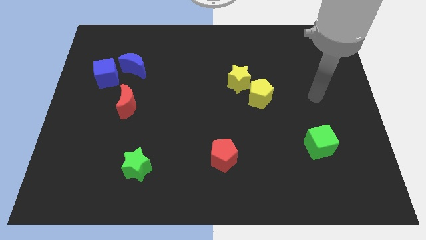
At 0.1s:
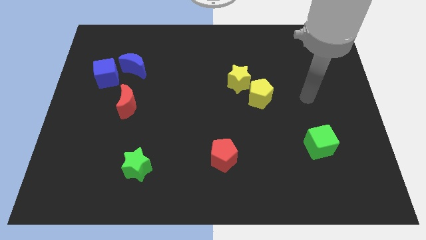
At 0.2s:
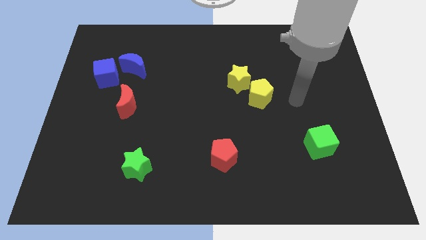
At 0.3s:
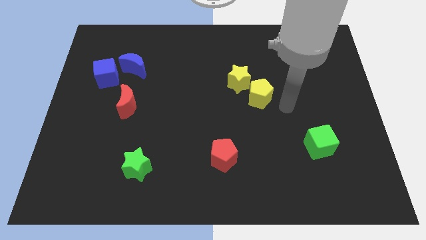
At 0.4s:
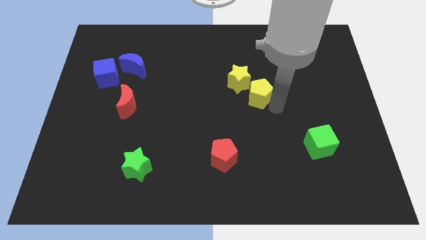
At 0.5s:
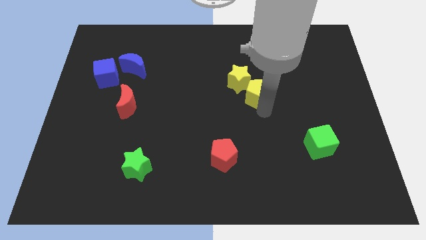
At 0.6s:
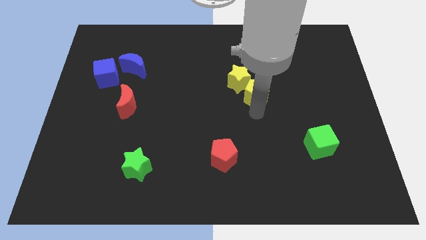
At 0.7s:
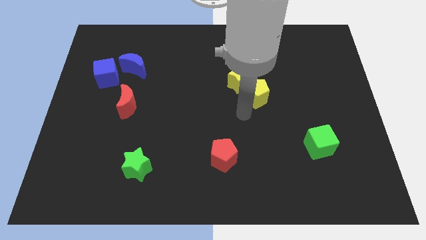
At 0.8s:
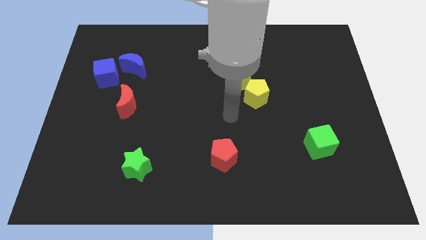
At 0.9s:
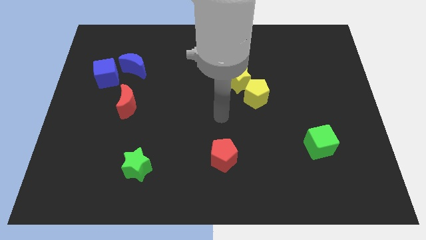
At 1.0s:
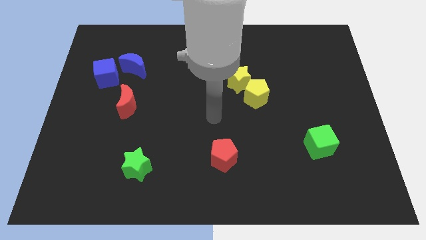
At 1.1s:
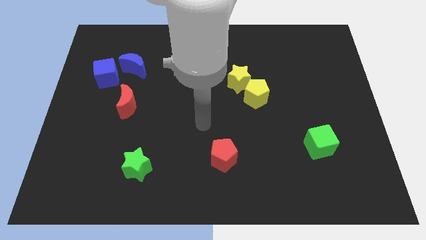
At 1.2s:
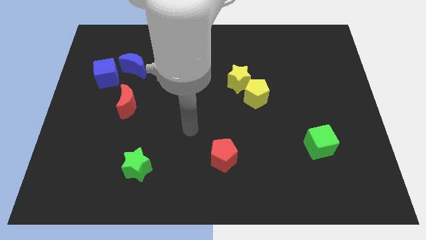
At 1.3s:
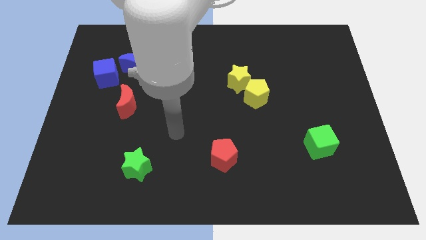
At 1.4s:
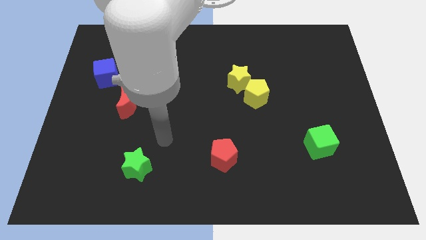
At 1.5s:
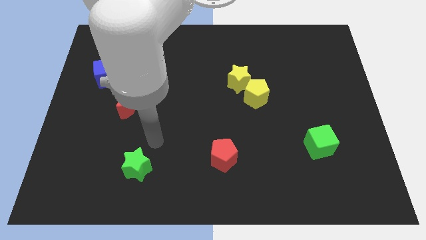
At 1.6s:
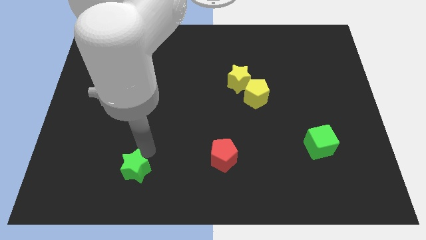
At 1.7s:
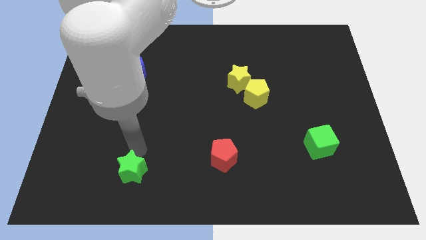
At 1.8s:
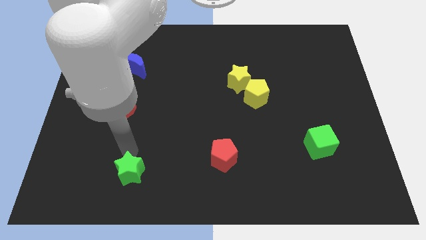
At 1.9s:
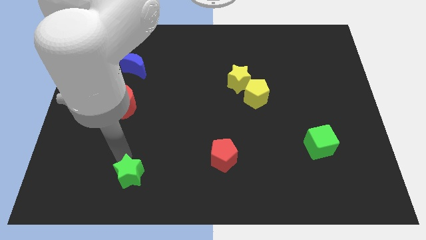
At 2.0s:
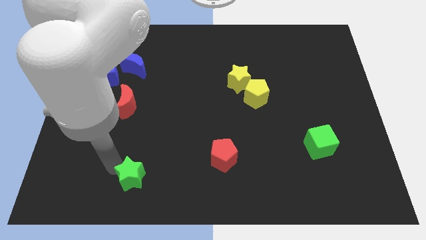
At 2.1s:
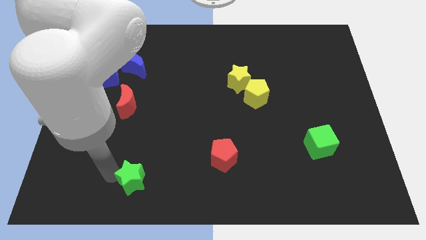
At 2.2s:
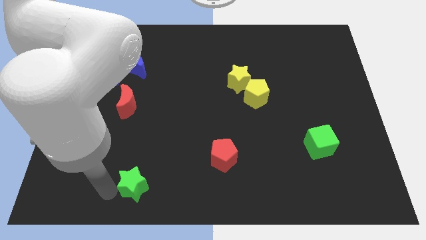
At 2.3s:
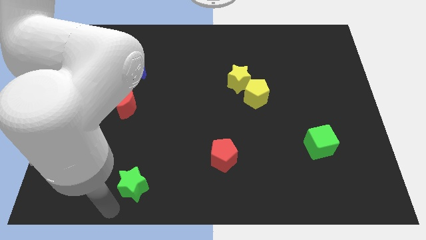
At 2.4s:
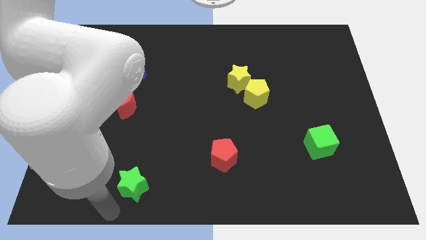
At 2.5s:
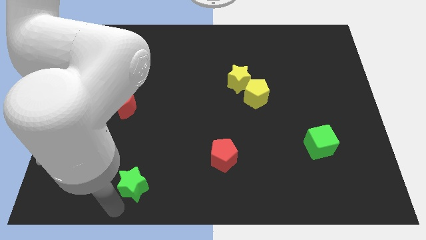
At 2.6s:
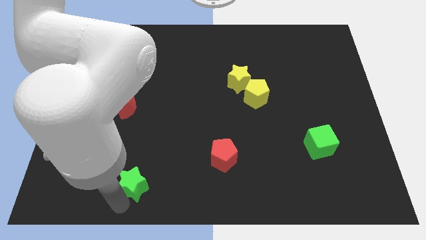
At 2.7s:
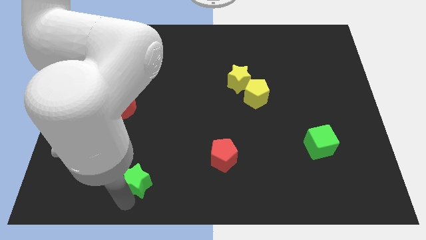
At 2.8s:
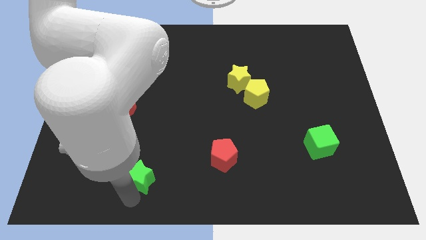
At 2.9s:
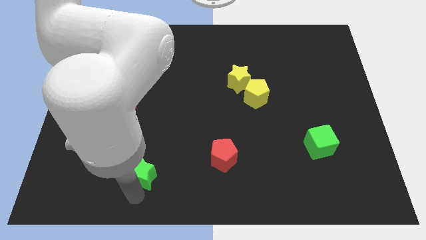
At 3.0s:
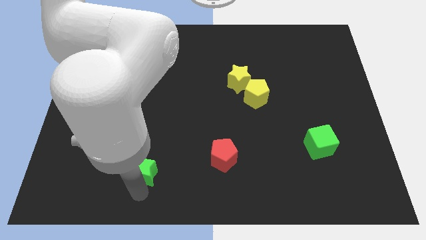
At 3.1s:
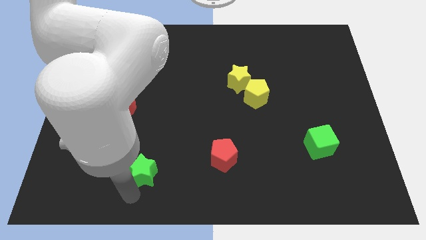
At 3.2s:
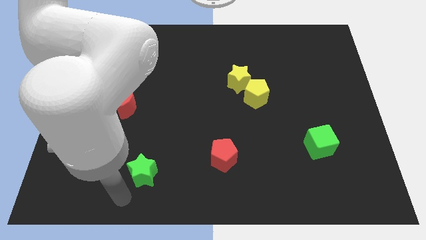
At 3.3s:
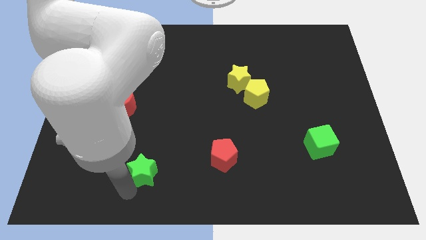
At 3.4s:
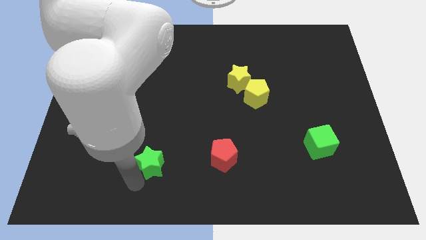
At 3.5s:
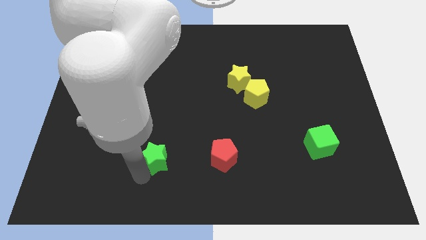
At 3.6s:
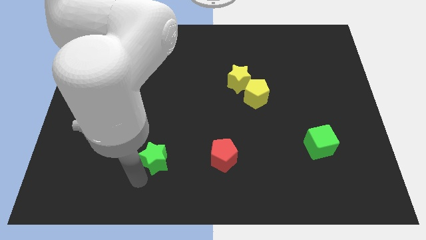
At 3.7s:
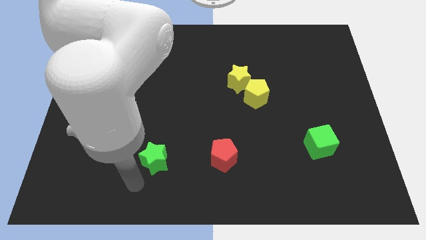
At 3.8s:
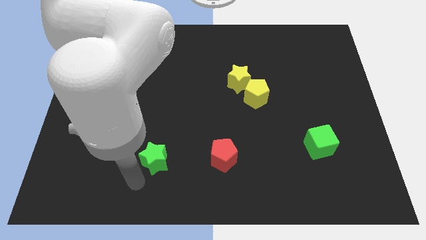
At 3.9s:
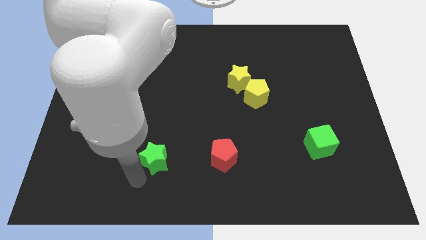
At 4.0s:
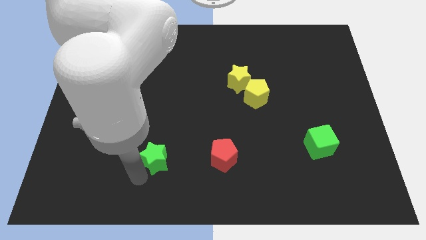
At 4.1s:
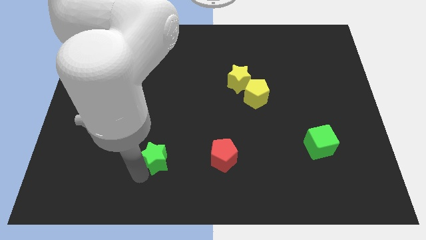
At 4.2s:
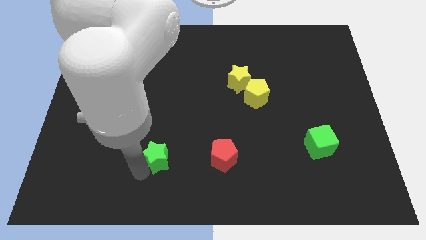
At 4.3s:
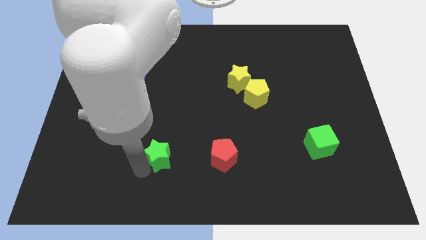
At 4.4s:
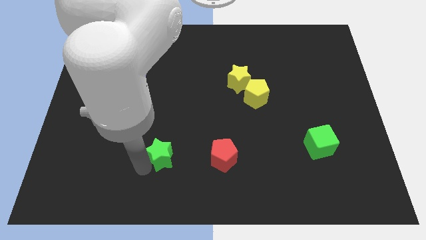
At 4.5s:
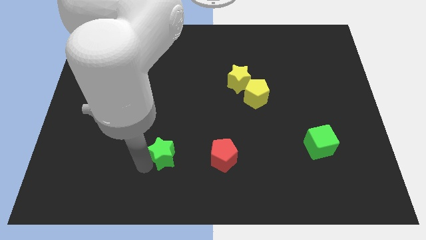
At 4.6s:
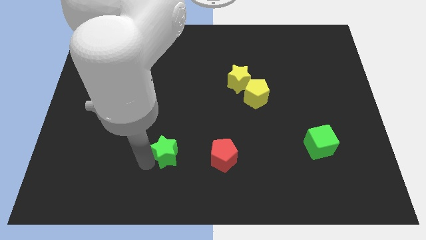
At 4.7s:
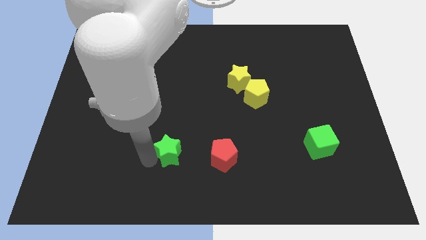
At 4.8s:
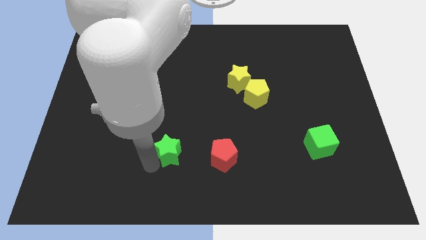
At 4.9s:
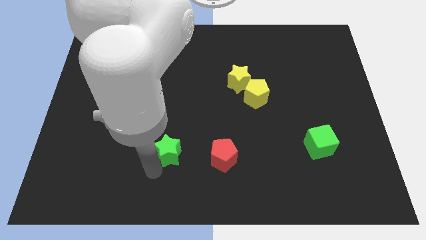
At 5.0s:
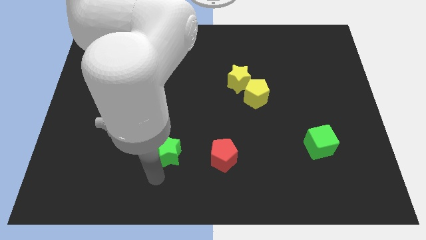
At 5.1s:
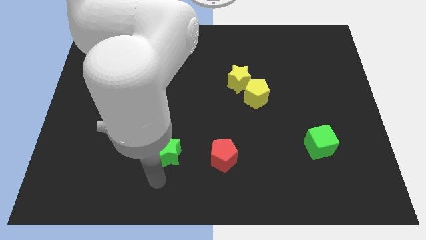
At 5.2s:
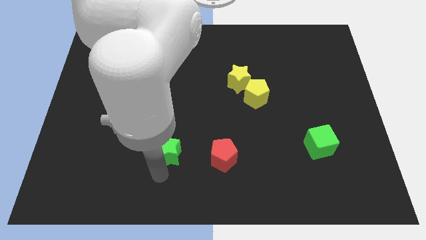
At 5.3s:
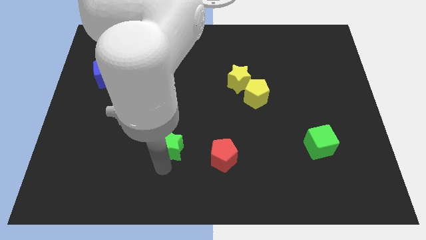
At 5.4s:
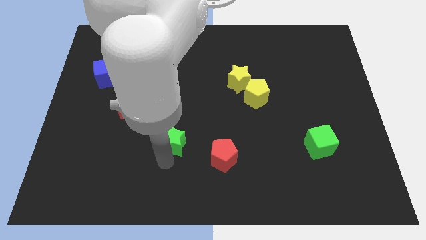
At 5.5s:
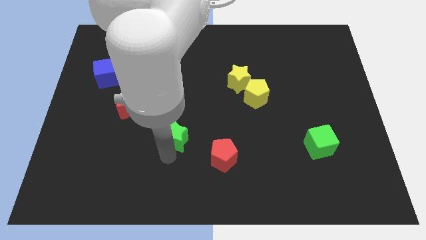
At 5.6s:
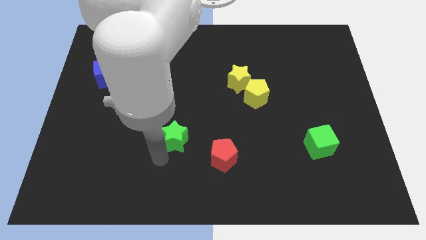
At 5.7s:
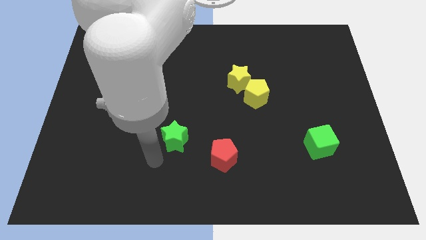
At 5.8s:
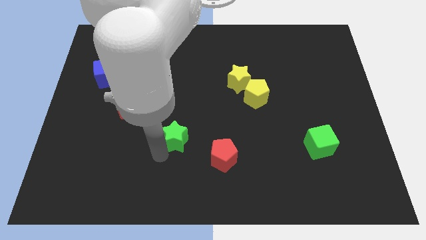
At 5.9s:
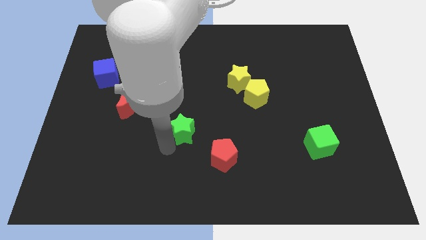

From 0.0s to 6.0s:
slide the green star to the middle of the board

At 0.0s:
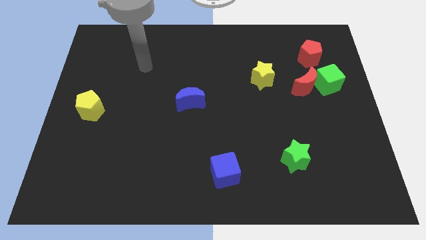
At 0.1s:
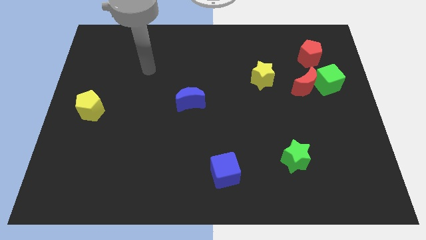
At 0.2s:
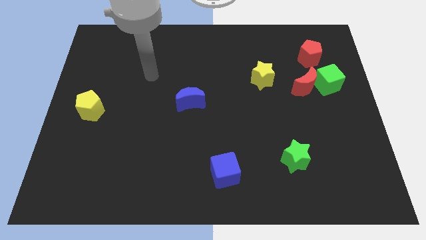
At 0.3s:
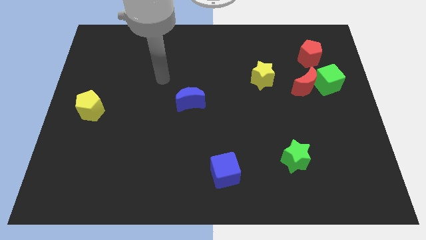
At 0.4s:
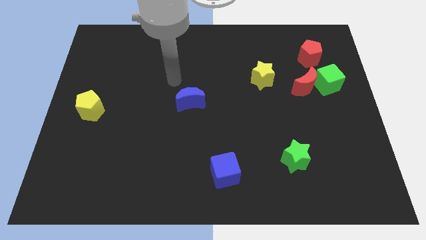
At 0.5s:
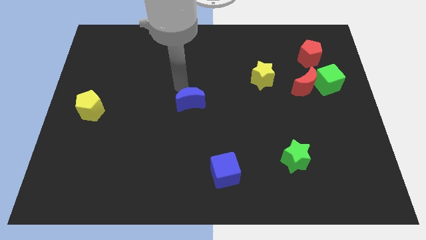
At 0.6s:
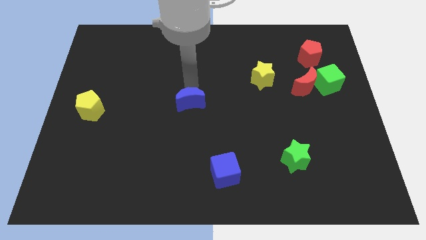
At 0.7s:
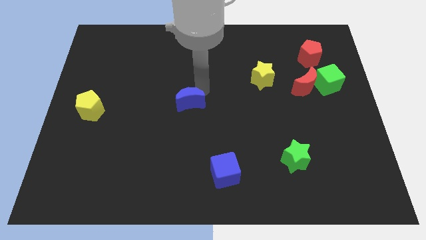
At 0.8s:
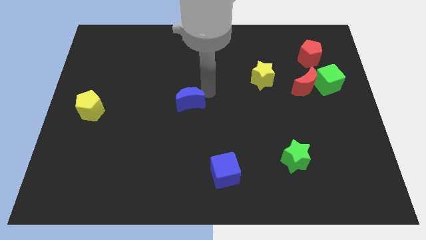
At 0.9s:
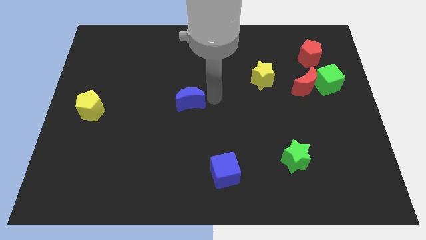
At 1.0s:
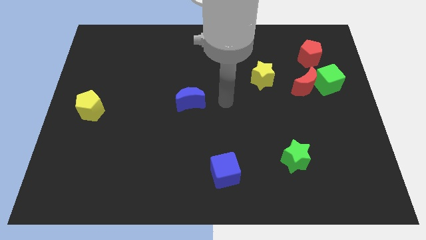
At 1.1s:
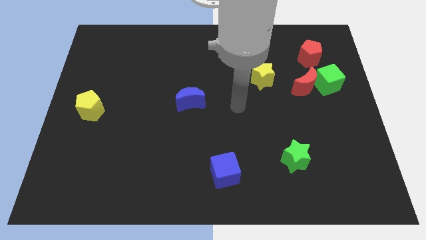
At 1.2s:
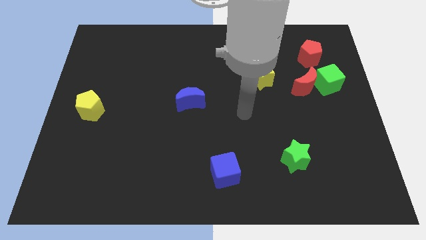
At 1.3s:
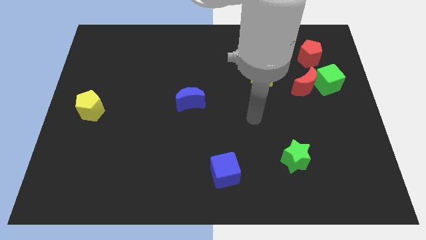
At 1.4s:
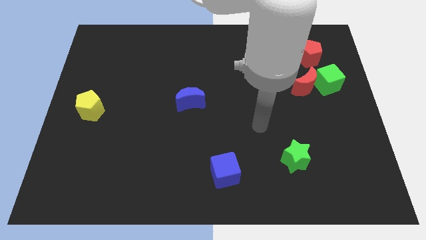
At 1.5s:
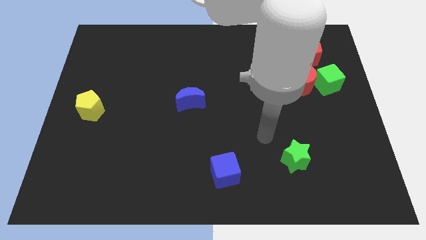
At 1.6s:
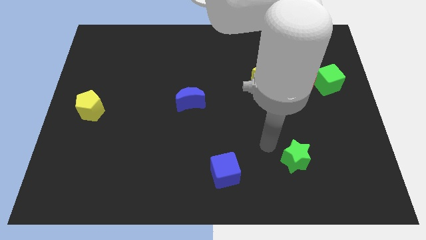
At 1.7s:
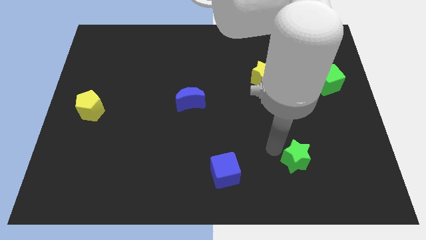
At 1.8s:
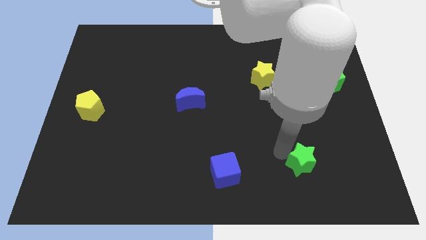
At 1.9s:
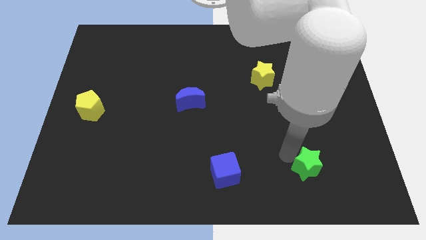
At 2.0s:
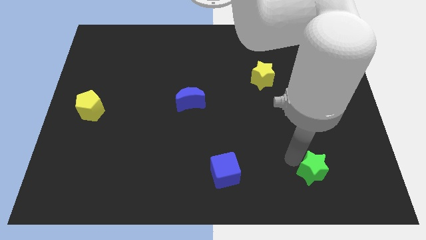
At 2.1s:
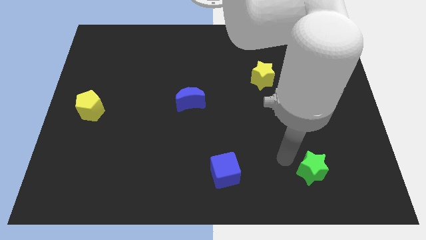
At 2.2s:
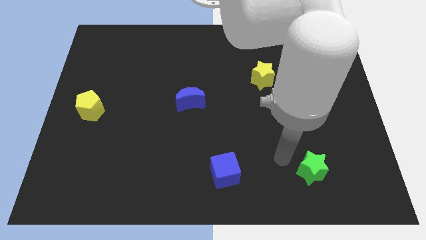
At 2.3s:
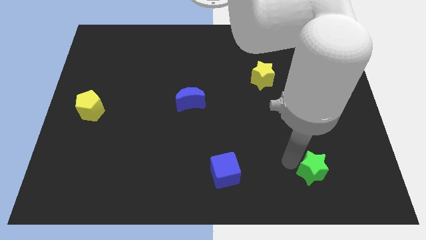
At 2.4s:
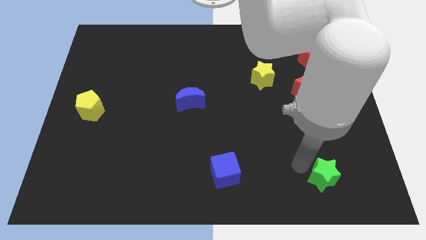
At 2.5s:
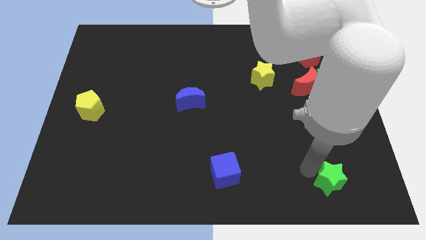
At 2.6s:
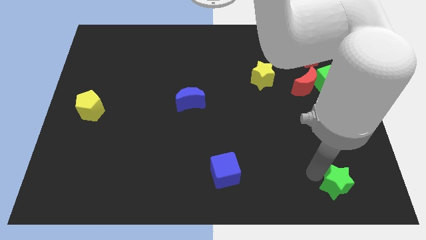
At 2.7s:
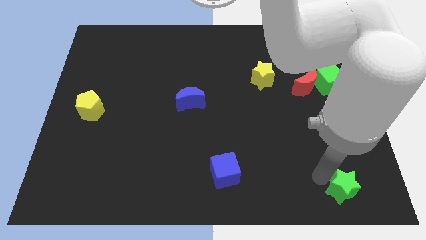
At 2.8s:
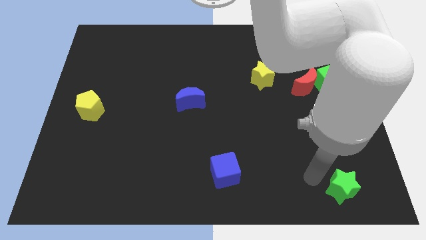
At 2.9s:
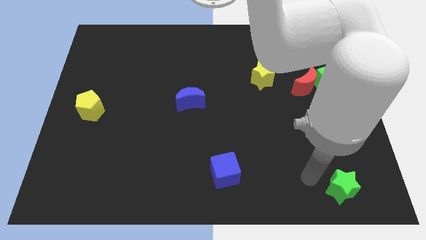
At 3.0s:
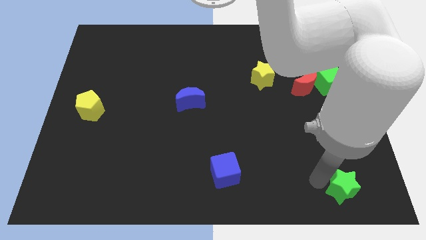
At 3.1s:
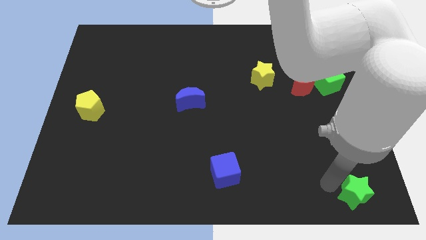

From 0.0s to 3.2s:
put the green star to the bottom right
